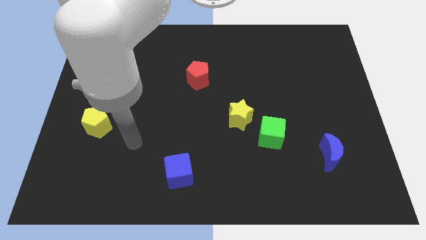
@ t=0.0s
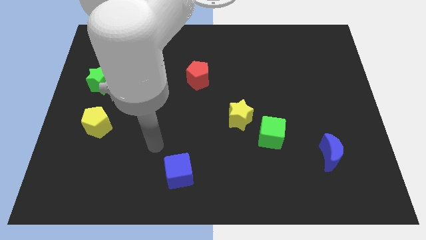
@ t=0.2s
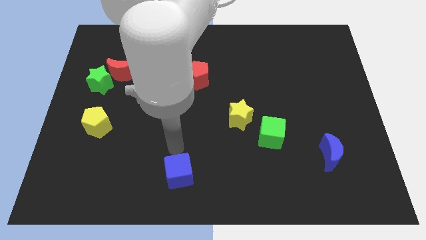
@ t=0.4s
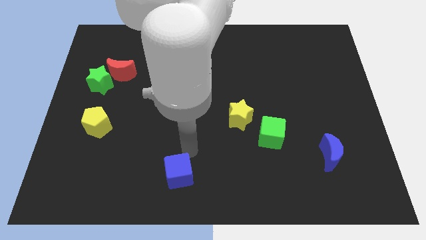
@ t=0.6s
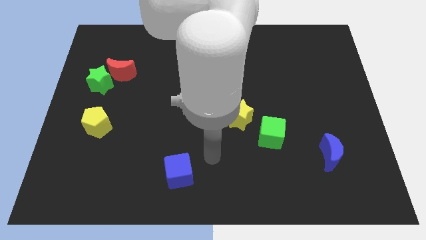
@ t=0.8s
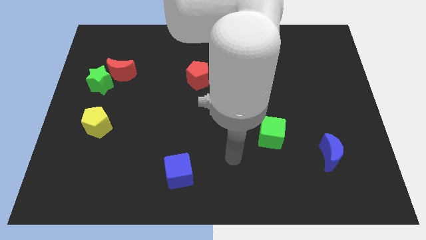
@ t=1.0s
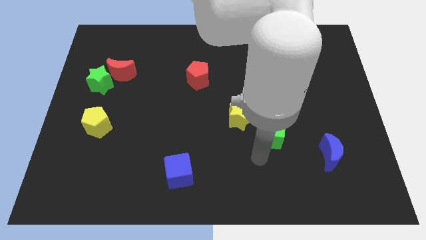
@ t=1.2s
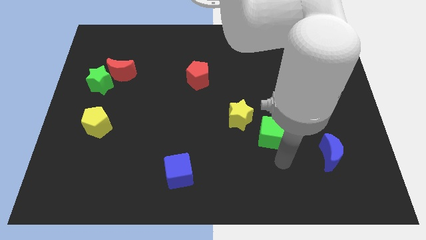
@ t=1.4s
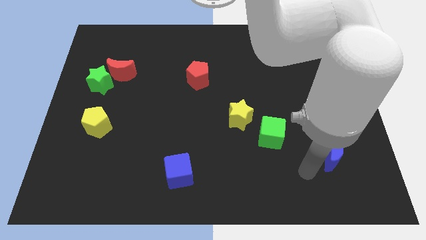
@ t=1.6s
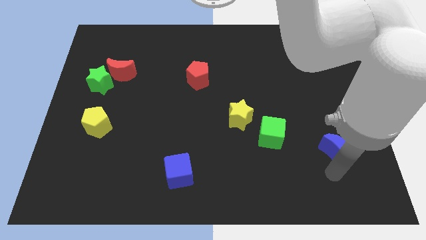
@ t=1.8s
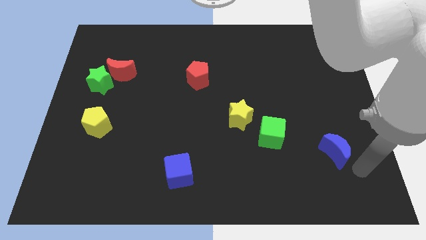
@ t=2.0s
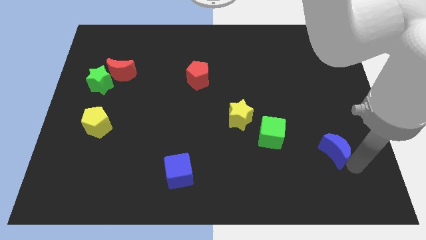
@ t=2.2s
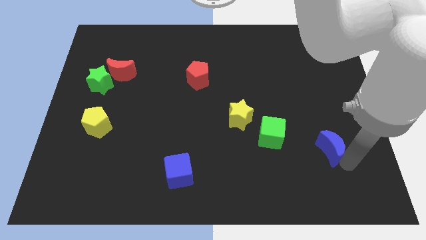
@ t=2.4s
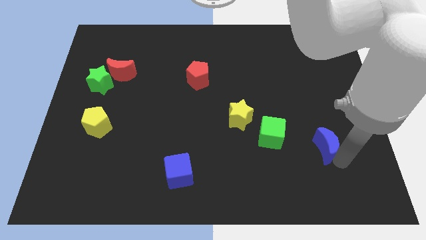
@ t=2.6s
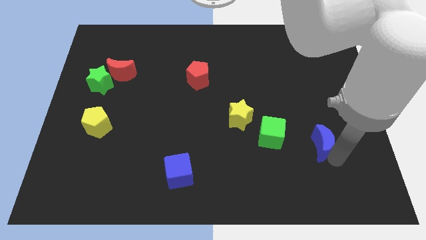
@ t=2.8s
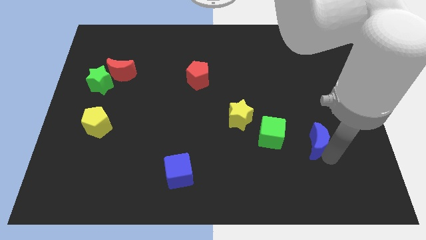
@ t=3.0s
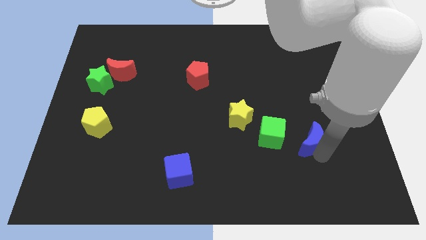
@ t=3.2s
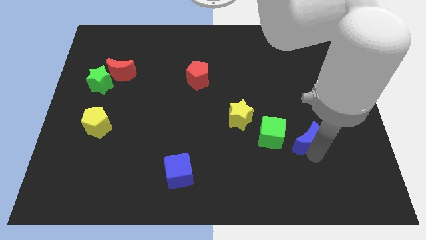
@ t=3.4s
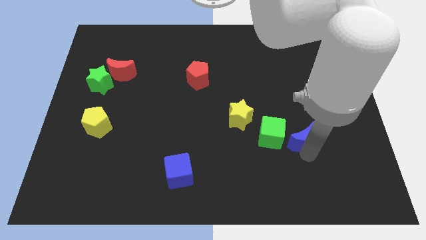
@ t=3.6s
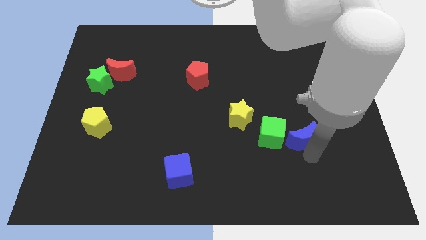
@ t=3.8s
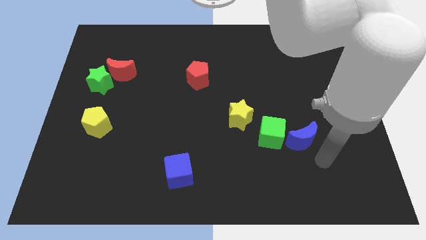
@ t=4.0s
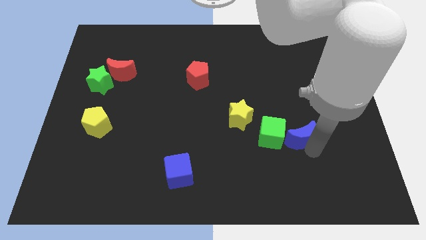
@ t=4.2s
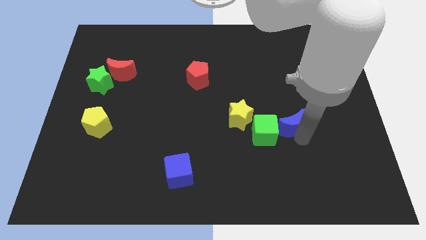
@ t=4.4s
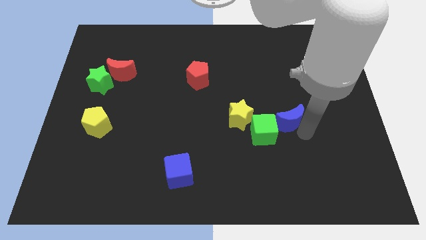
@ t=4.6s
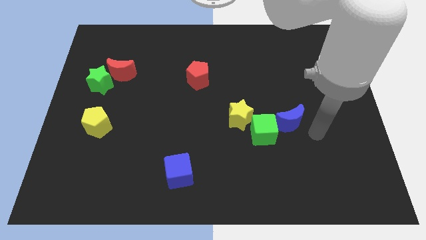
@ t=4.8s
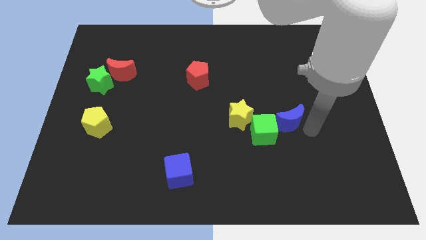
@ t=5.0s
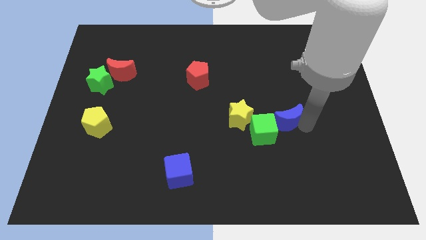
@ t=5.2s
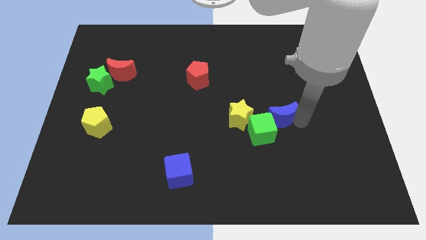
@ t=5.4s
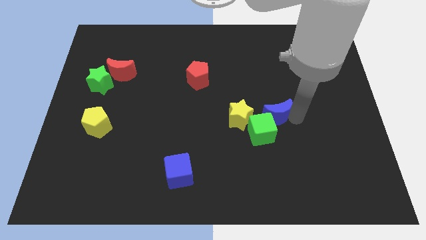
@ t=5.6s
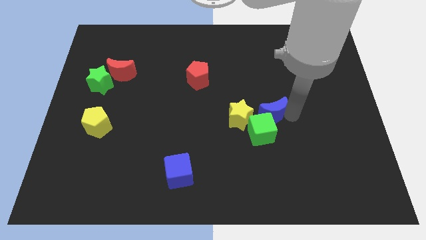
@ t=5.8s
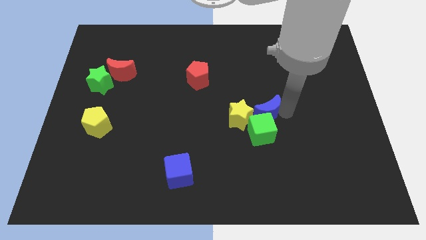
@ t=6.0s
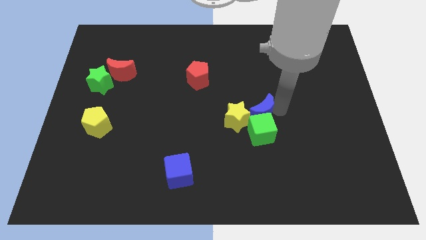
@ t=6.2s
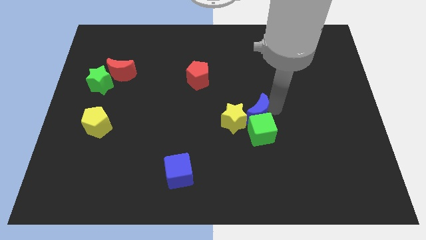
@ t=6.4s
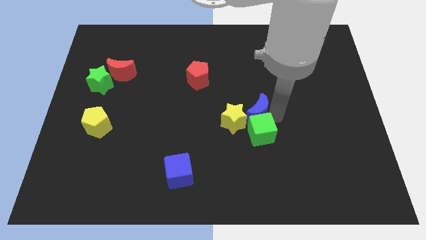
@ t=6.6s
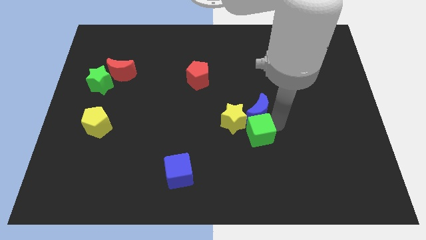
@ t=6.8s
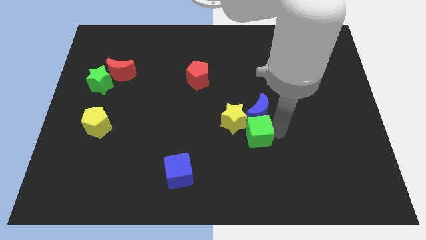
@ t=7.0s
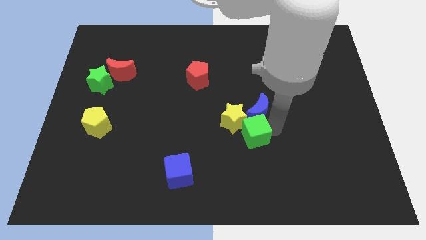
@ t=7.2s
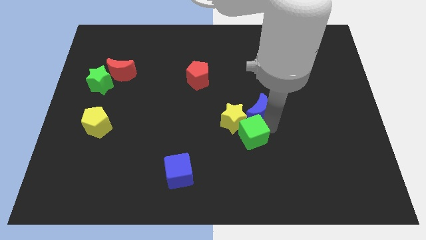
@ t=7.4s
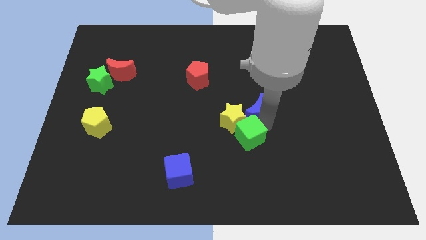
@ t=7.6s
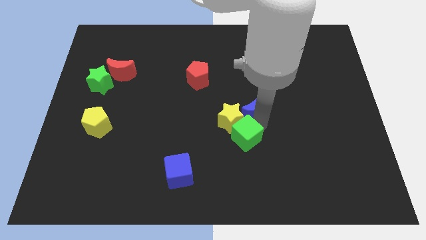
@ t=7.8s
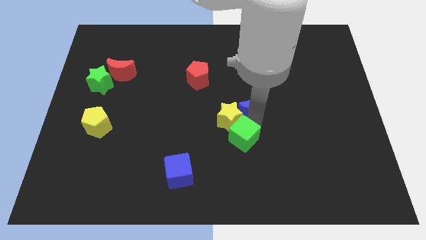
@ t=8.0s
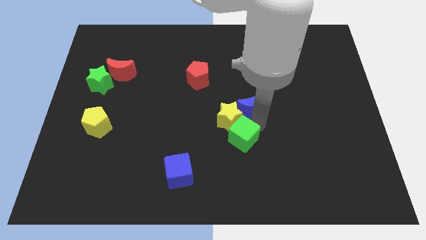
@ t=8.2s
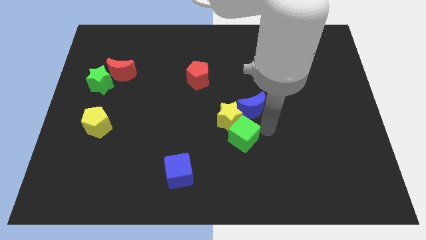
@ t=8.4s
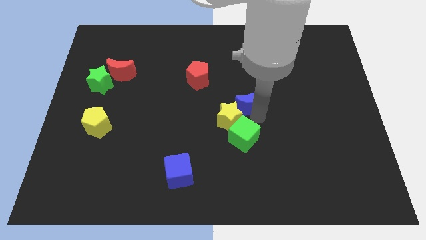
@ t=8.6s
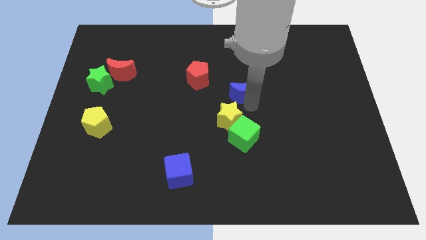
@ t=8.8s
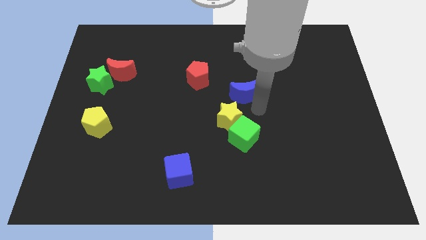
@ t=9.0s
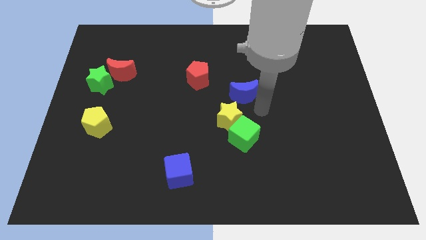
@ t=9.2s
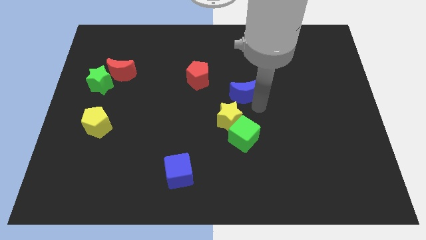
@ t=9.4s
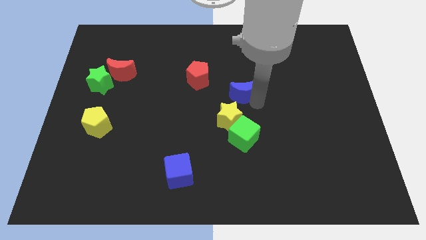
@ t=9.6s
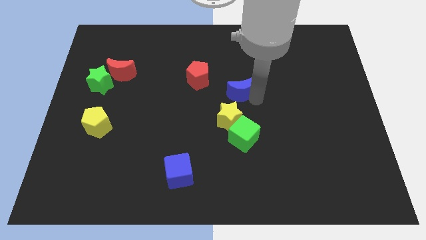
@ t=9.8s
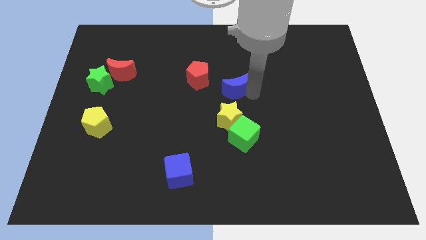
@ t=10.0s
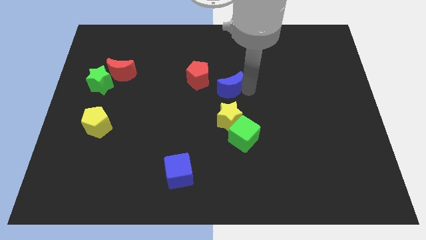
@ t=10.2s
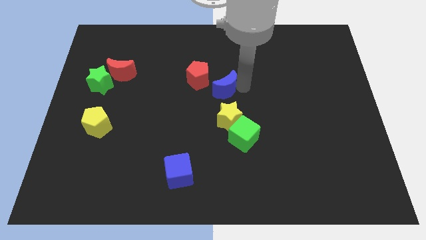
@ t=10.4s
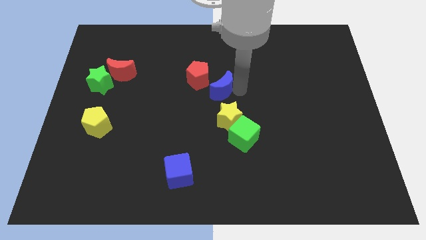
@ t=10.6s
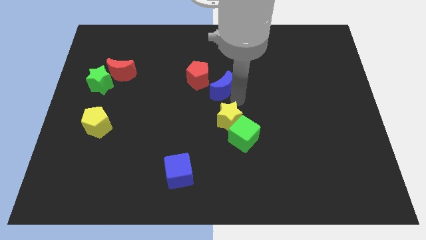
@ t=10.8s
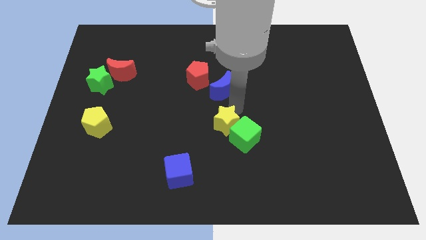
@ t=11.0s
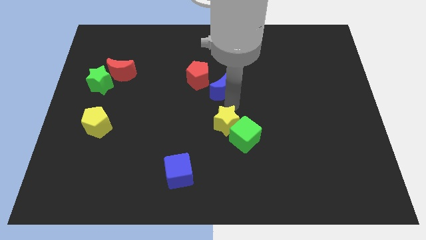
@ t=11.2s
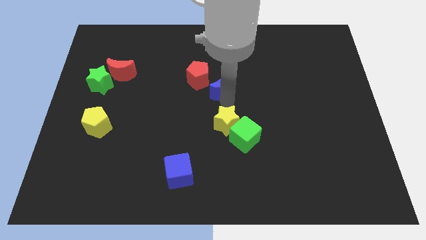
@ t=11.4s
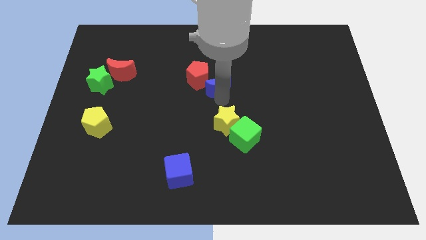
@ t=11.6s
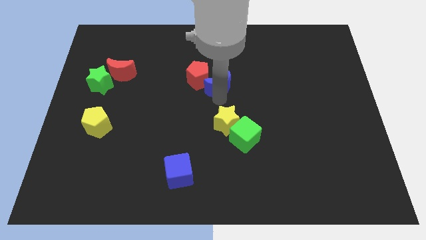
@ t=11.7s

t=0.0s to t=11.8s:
move the blue moon next to the red pentagon

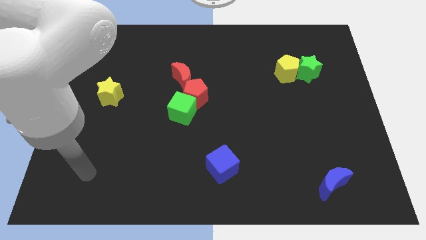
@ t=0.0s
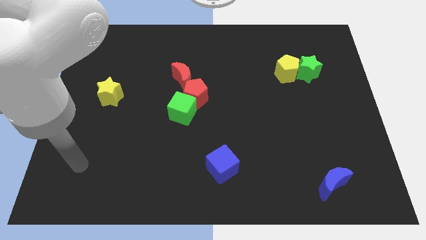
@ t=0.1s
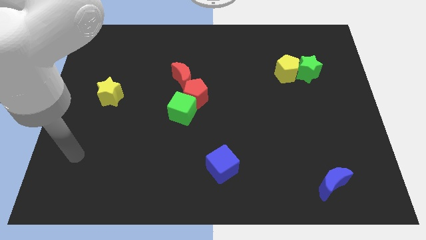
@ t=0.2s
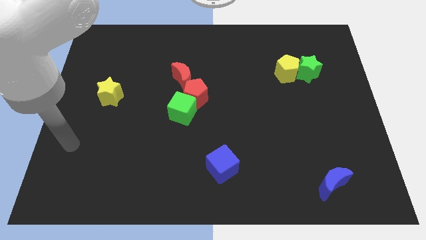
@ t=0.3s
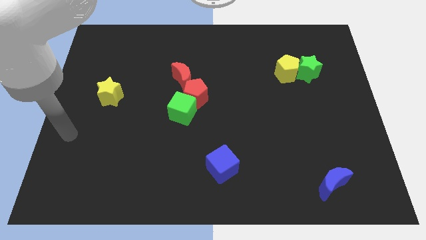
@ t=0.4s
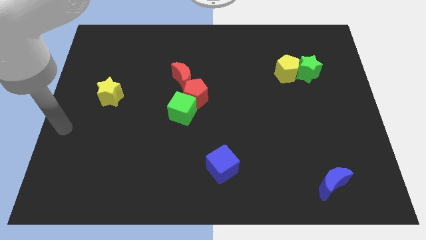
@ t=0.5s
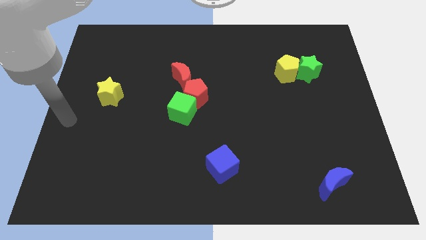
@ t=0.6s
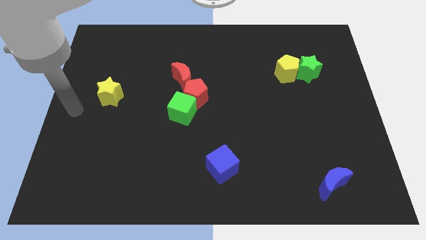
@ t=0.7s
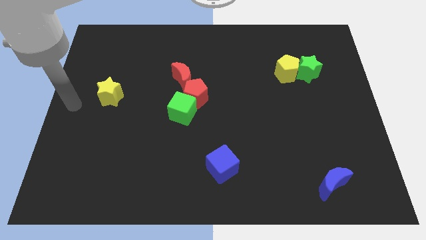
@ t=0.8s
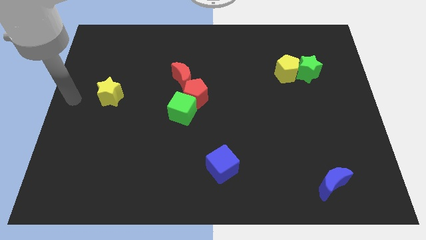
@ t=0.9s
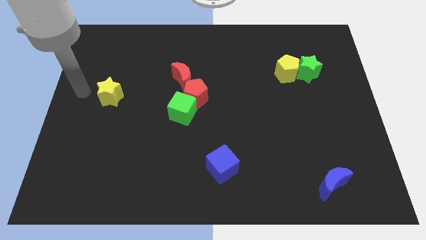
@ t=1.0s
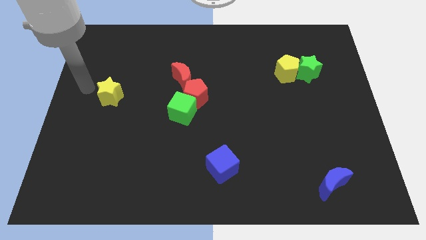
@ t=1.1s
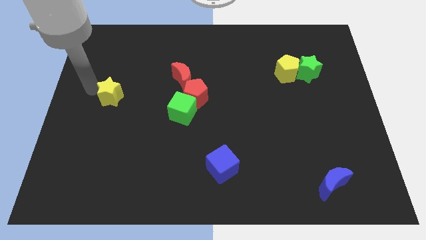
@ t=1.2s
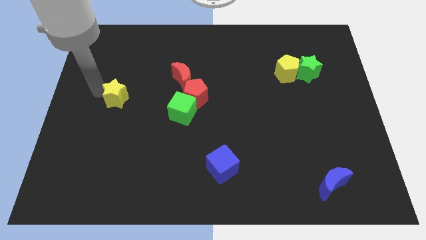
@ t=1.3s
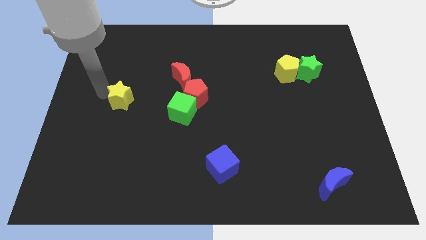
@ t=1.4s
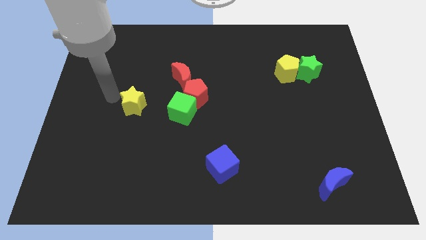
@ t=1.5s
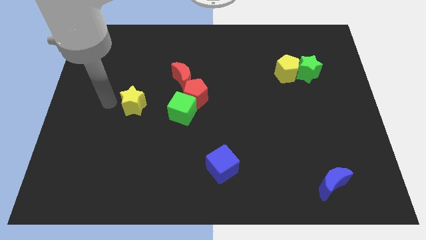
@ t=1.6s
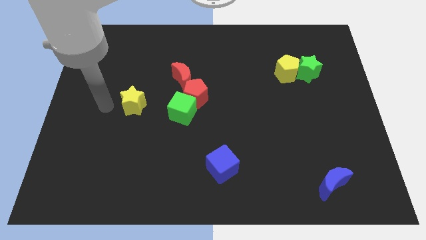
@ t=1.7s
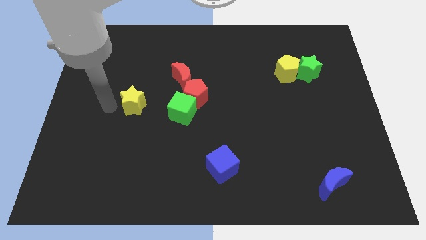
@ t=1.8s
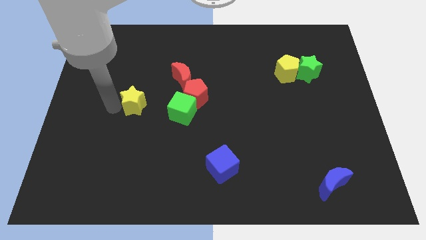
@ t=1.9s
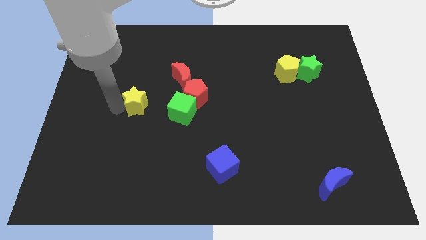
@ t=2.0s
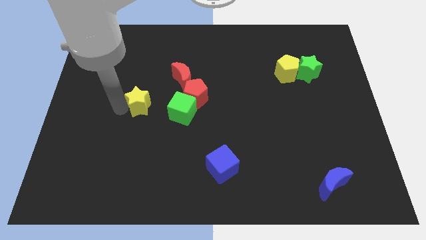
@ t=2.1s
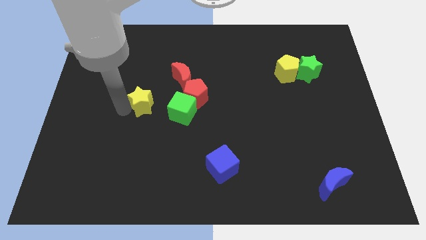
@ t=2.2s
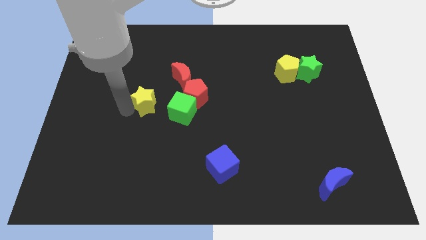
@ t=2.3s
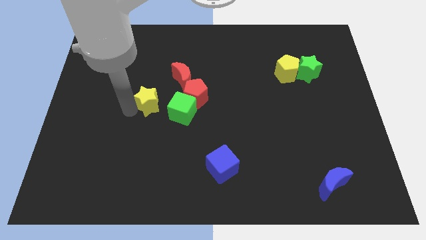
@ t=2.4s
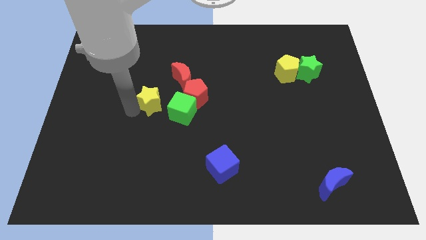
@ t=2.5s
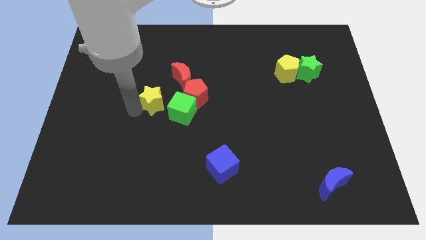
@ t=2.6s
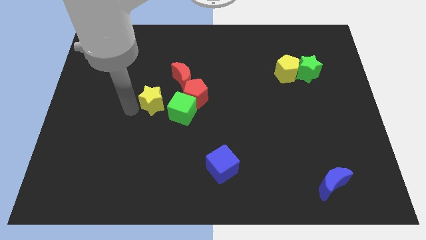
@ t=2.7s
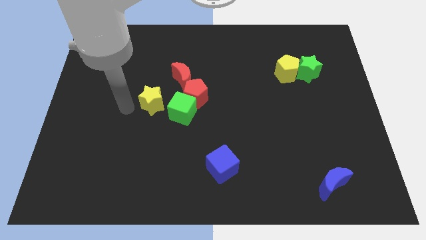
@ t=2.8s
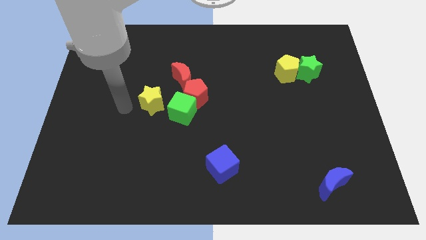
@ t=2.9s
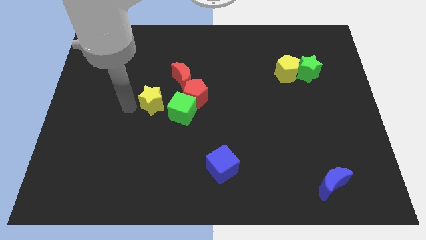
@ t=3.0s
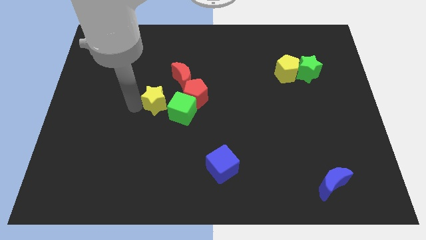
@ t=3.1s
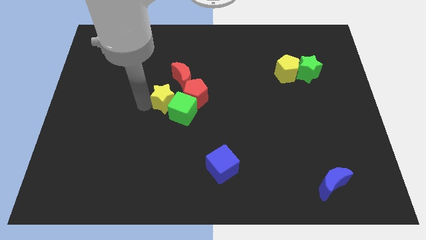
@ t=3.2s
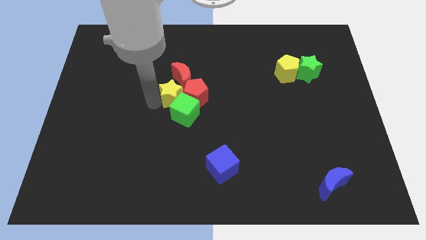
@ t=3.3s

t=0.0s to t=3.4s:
slide the yellow star close to the red pentagon
